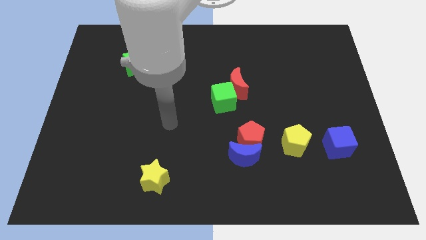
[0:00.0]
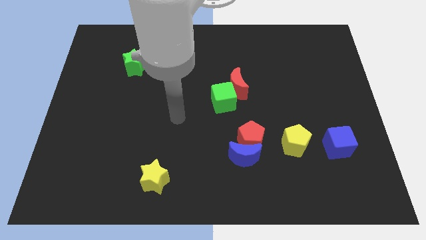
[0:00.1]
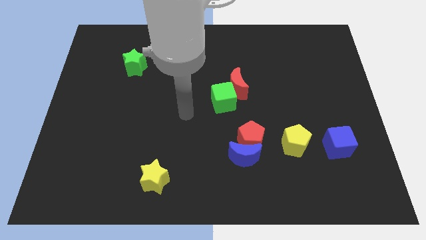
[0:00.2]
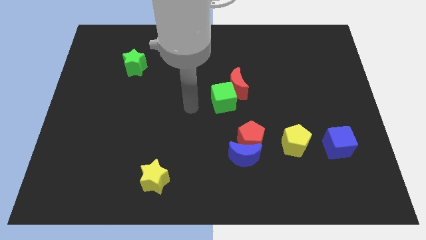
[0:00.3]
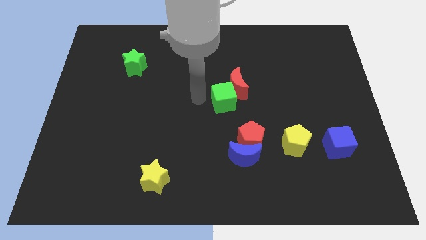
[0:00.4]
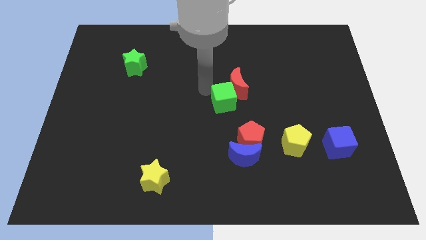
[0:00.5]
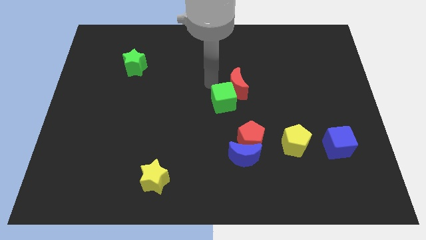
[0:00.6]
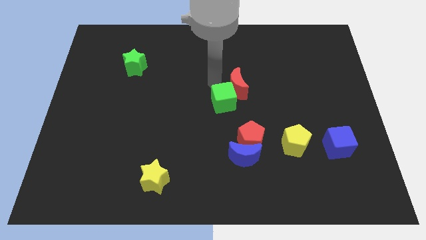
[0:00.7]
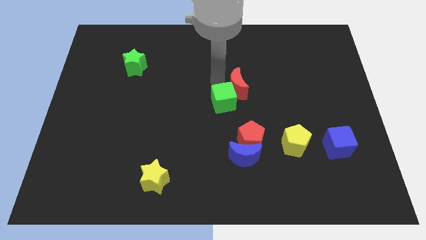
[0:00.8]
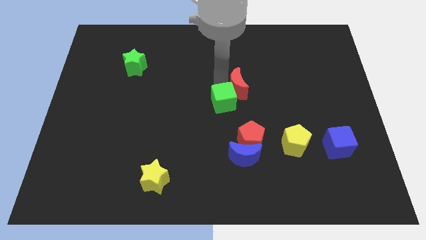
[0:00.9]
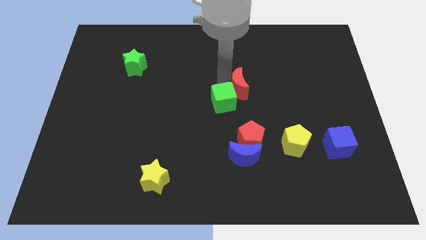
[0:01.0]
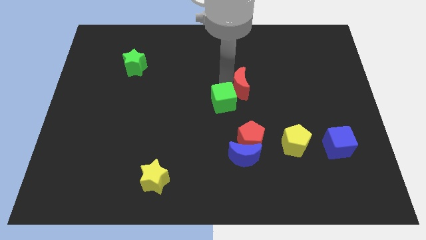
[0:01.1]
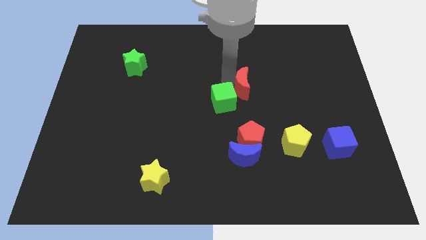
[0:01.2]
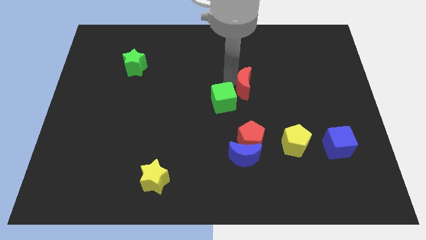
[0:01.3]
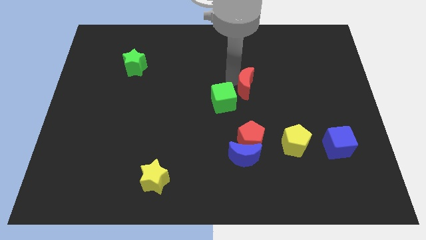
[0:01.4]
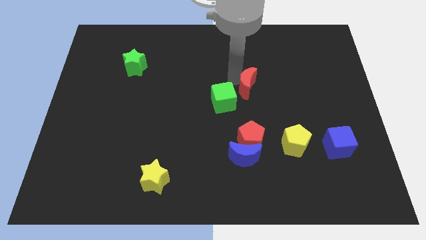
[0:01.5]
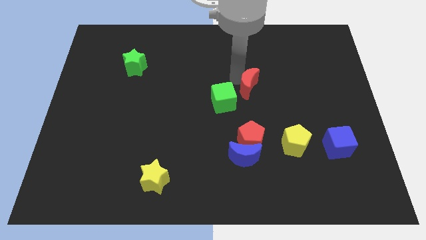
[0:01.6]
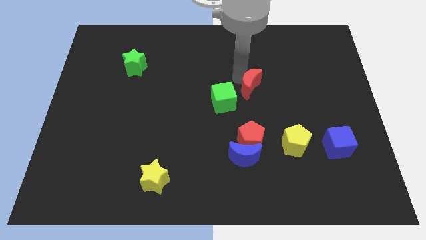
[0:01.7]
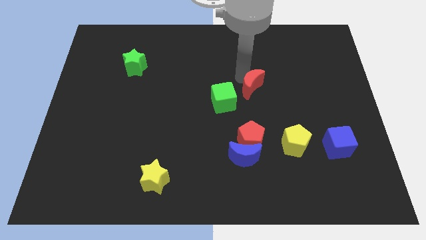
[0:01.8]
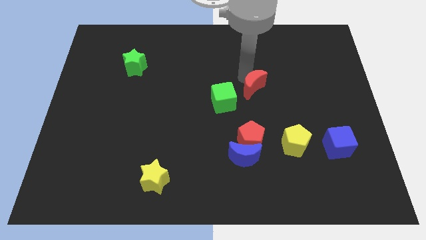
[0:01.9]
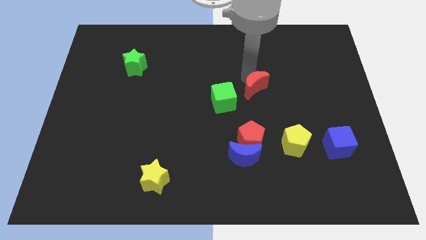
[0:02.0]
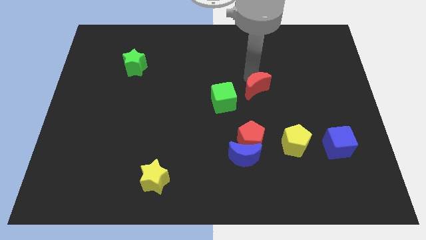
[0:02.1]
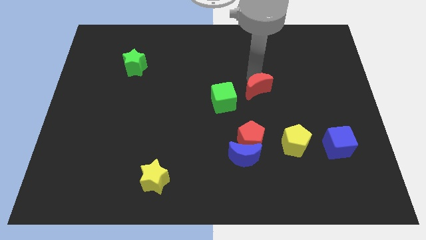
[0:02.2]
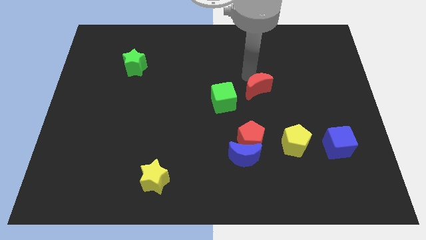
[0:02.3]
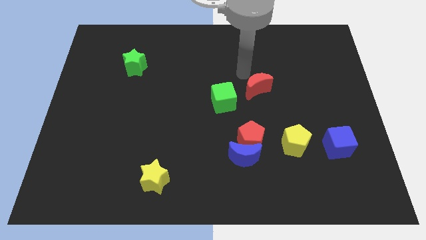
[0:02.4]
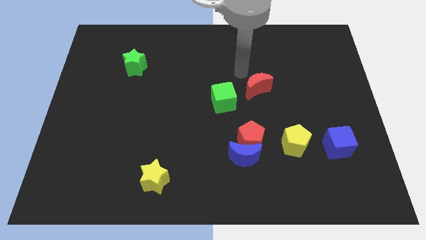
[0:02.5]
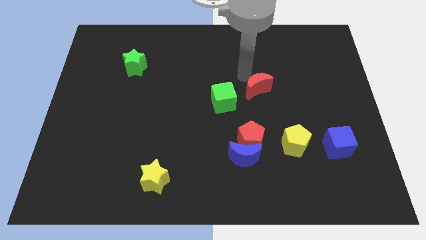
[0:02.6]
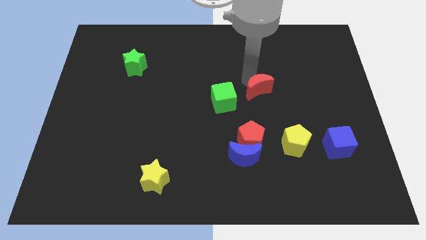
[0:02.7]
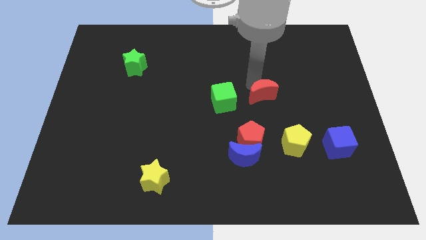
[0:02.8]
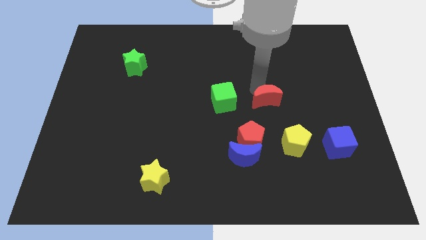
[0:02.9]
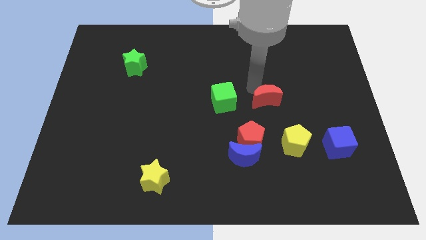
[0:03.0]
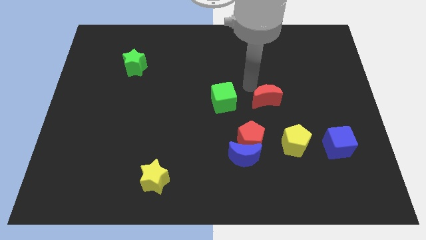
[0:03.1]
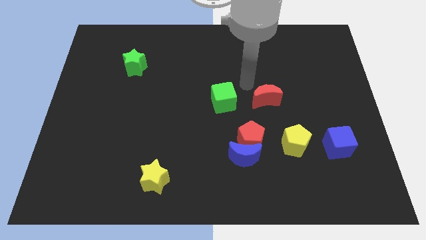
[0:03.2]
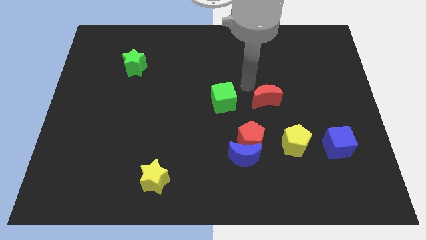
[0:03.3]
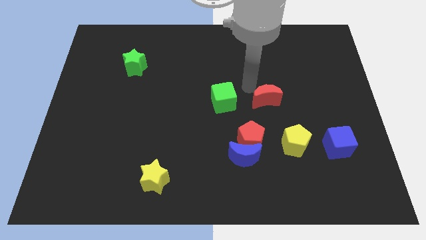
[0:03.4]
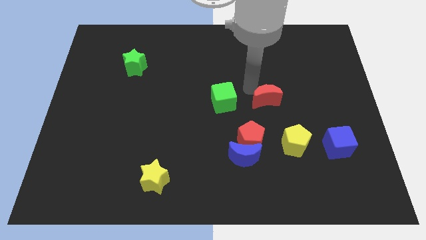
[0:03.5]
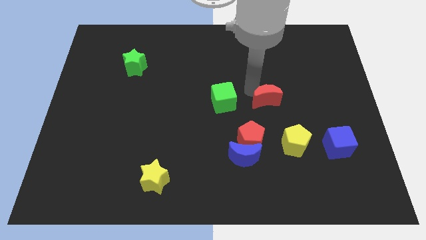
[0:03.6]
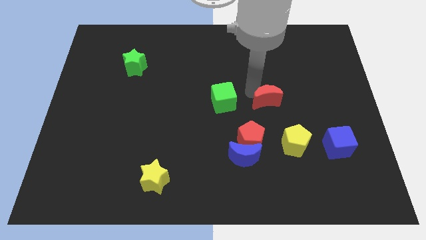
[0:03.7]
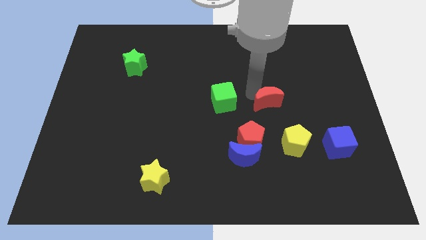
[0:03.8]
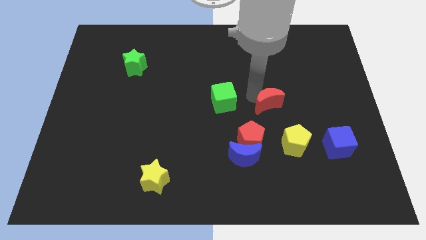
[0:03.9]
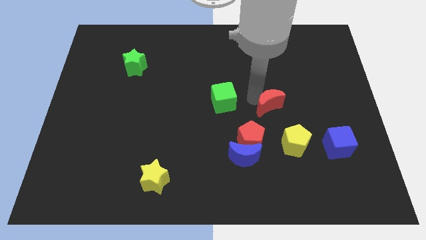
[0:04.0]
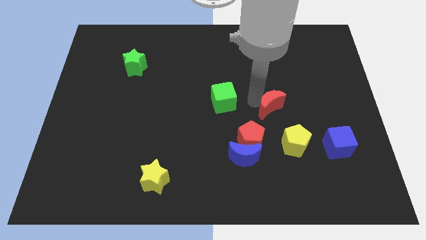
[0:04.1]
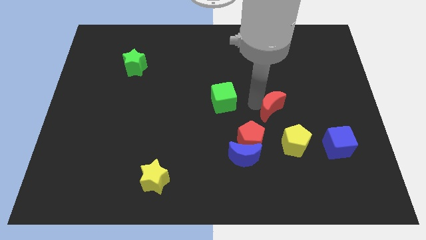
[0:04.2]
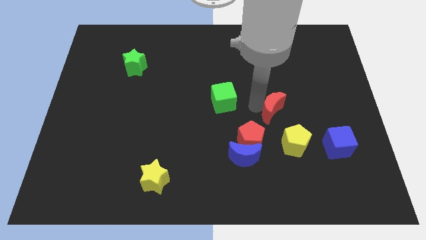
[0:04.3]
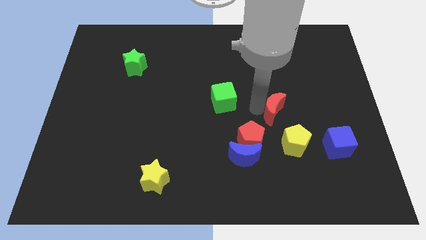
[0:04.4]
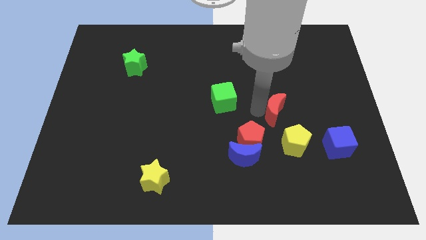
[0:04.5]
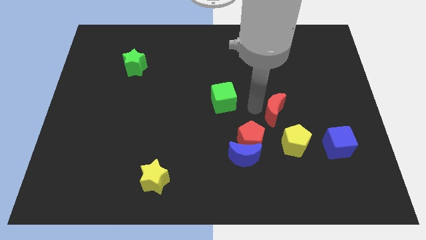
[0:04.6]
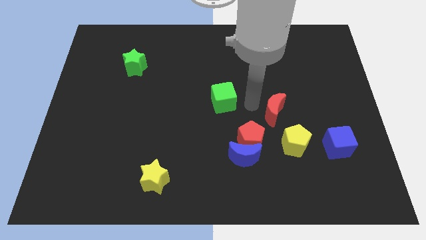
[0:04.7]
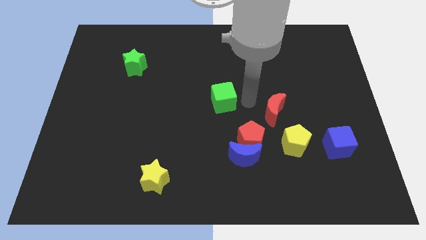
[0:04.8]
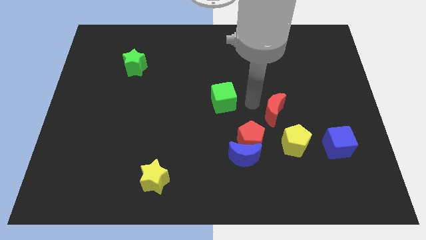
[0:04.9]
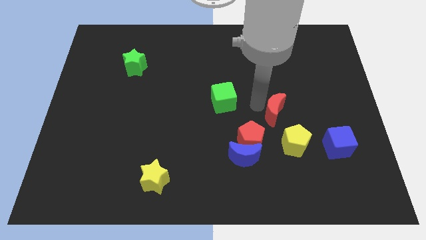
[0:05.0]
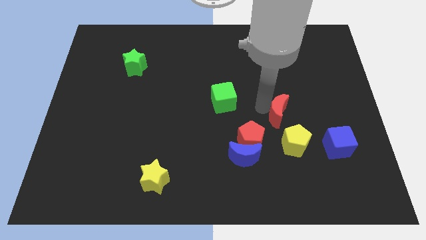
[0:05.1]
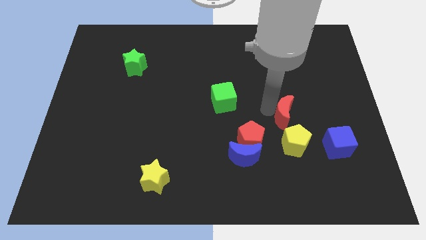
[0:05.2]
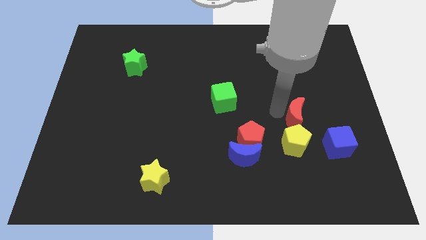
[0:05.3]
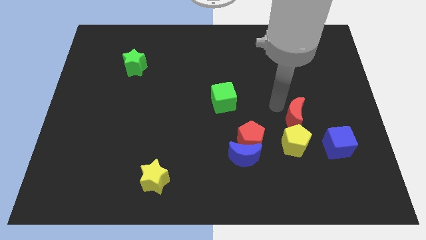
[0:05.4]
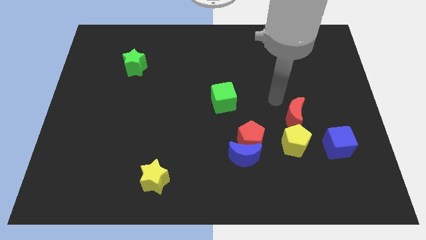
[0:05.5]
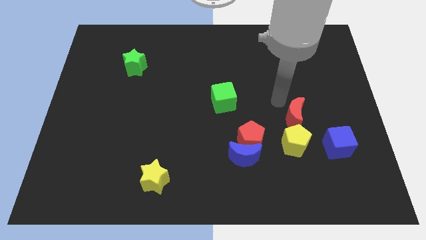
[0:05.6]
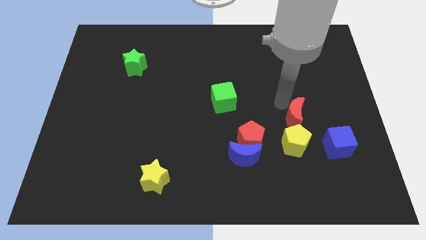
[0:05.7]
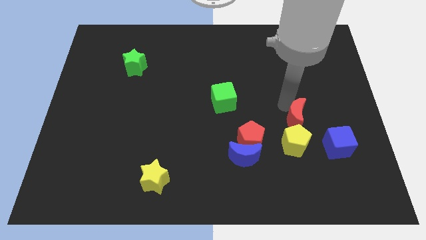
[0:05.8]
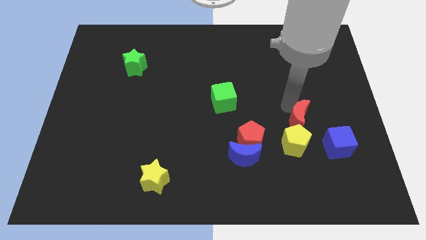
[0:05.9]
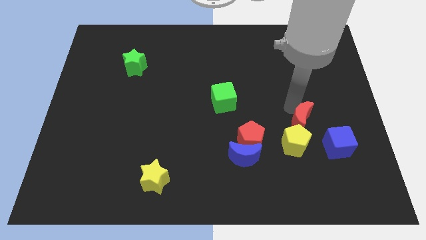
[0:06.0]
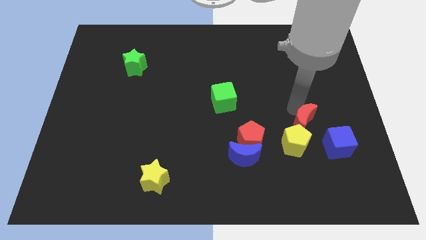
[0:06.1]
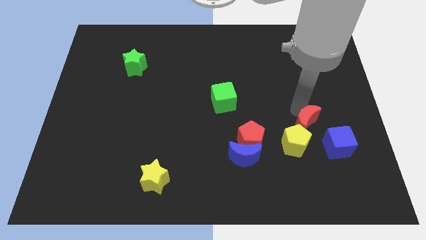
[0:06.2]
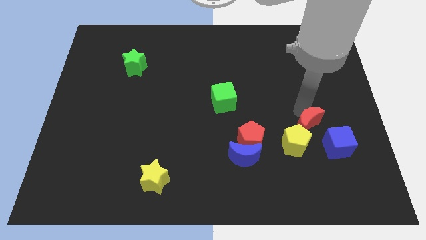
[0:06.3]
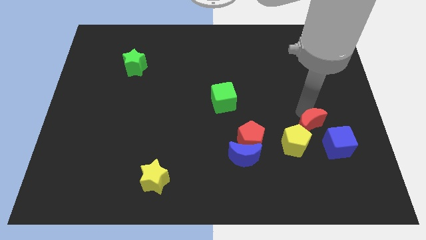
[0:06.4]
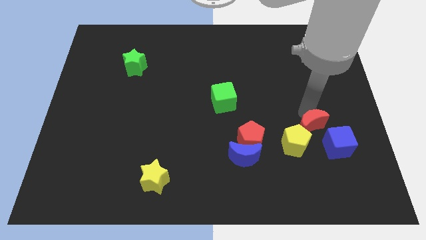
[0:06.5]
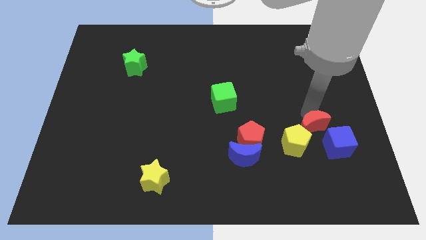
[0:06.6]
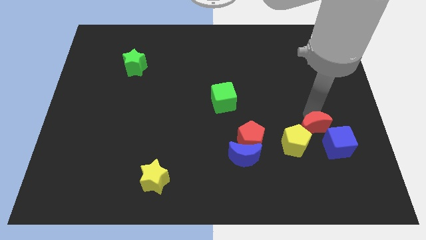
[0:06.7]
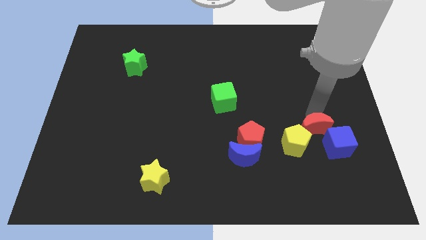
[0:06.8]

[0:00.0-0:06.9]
move the red moon downwards and then to the right

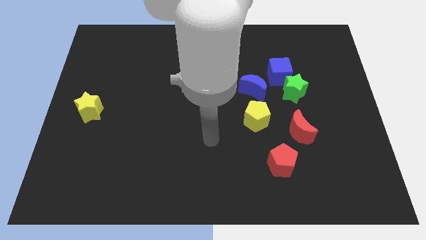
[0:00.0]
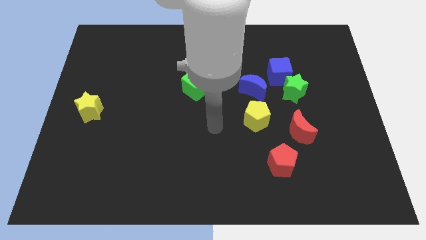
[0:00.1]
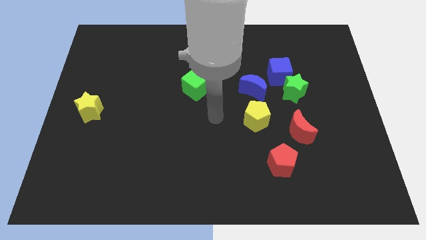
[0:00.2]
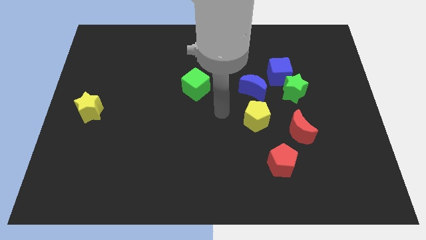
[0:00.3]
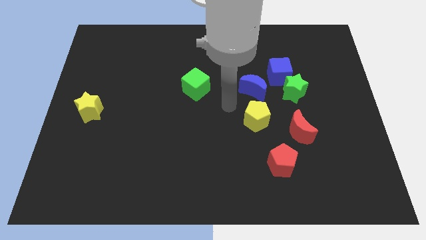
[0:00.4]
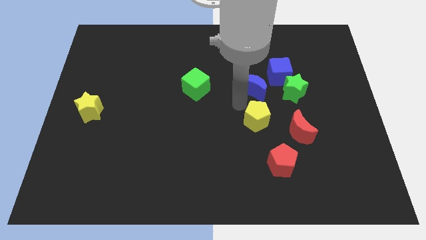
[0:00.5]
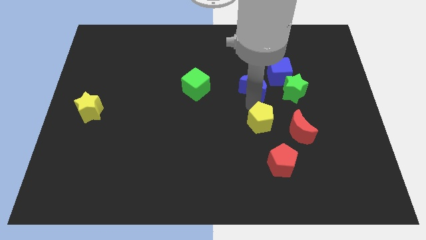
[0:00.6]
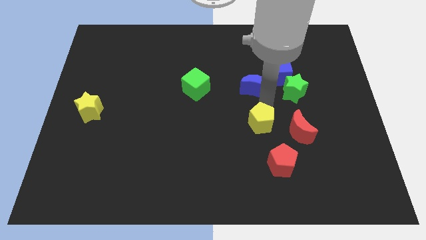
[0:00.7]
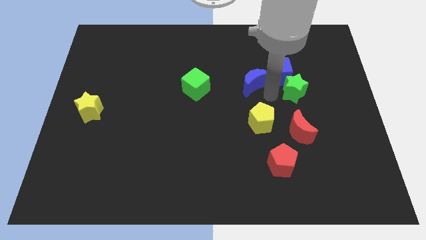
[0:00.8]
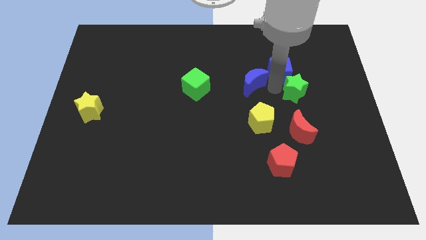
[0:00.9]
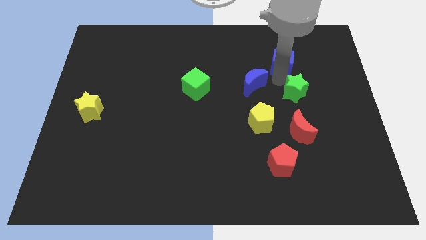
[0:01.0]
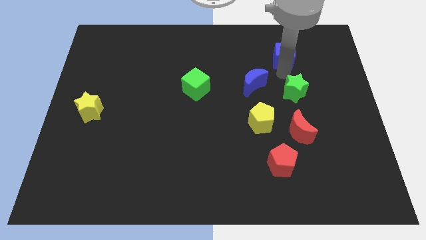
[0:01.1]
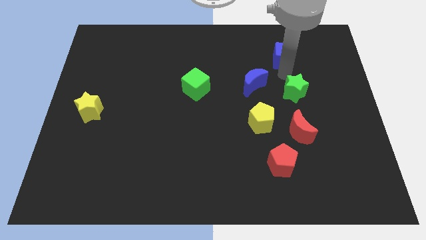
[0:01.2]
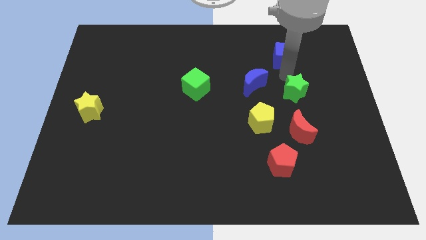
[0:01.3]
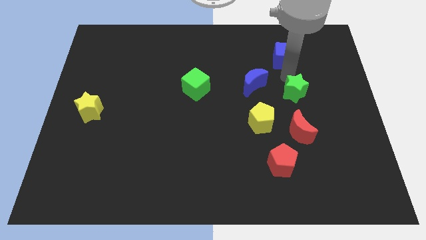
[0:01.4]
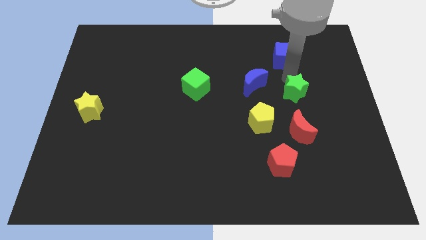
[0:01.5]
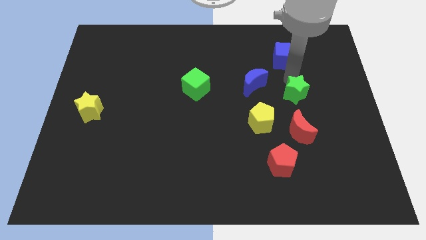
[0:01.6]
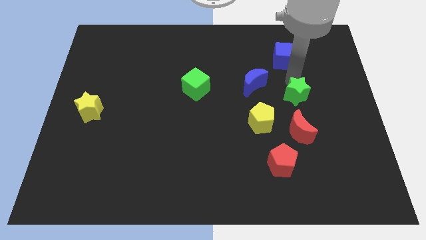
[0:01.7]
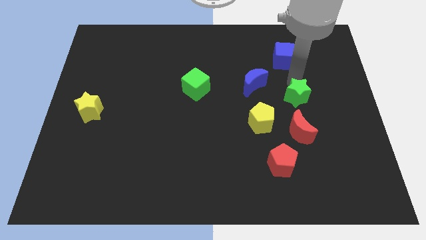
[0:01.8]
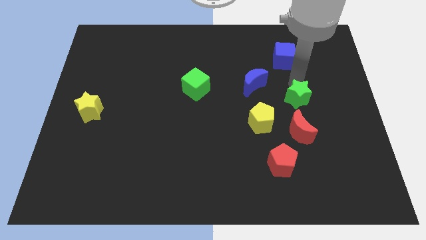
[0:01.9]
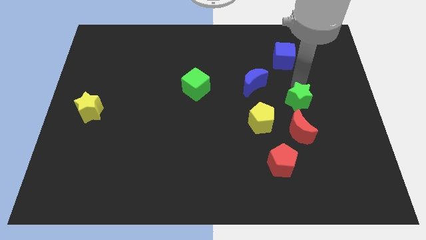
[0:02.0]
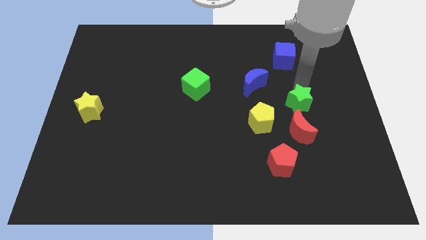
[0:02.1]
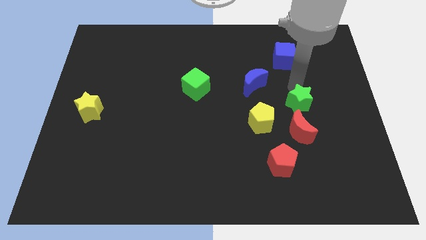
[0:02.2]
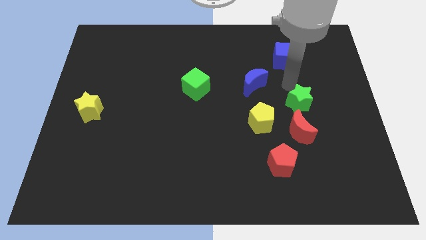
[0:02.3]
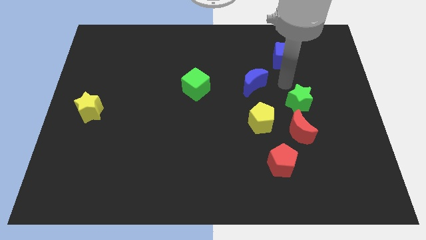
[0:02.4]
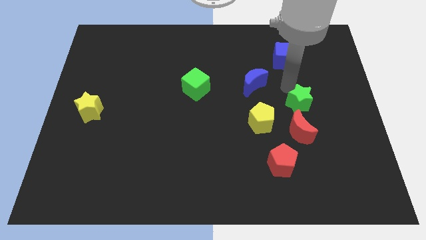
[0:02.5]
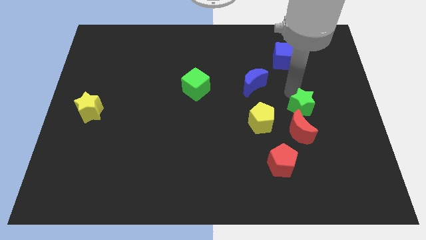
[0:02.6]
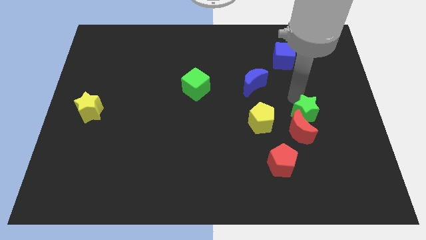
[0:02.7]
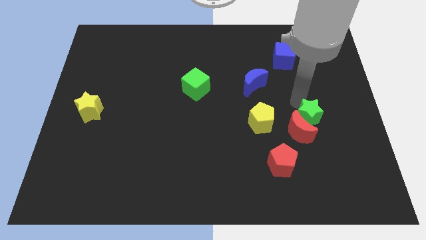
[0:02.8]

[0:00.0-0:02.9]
move the green star downwards slightly
